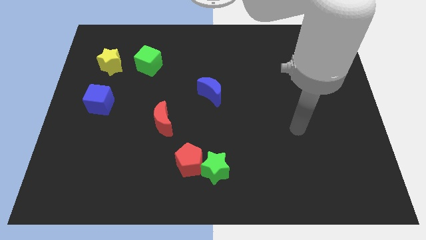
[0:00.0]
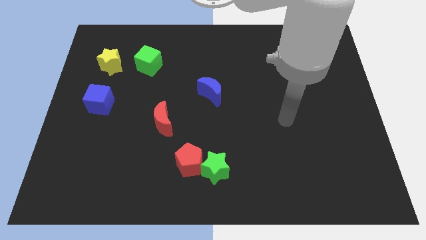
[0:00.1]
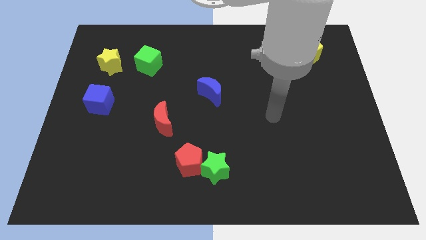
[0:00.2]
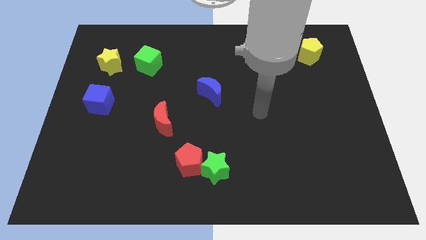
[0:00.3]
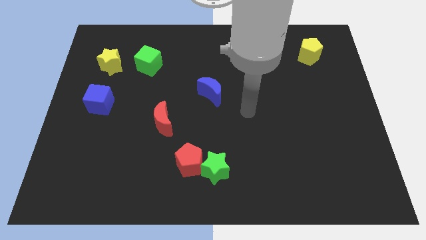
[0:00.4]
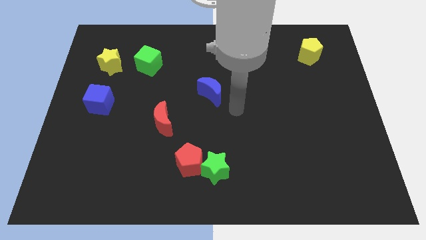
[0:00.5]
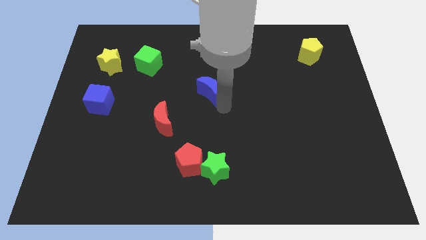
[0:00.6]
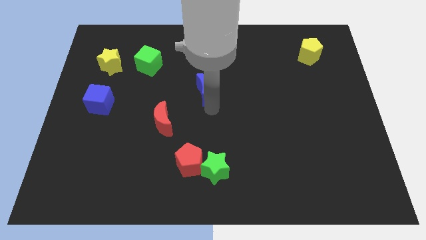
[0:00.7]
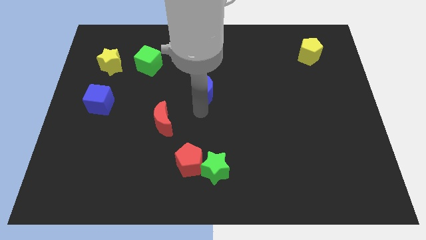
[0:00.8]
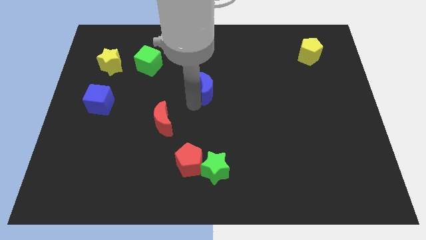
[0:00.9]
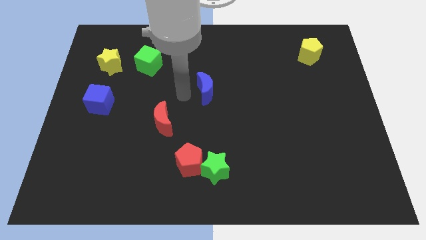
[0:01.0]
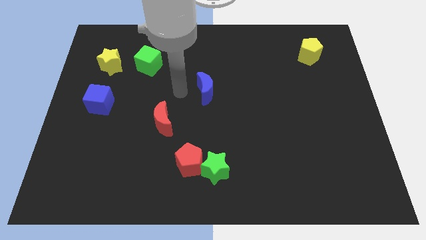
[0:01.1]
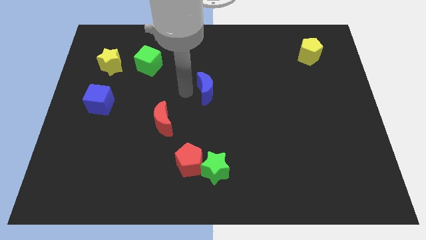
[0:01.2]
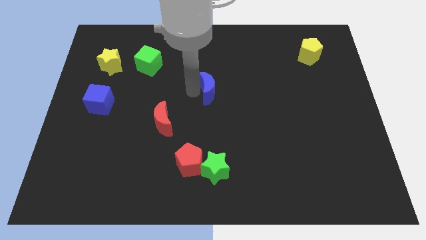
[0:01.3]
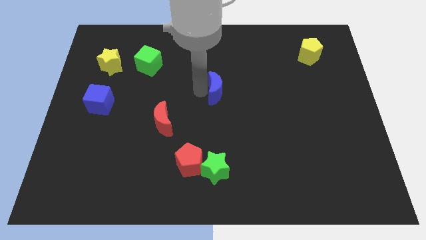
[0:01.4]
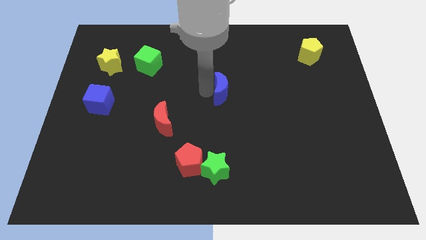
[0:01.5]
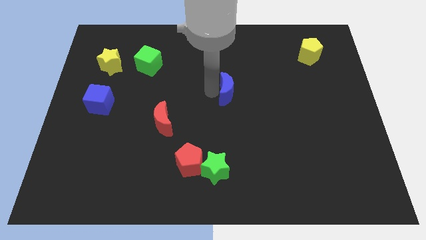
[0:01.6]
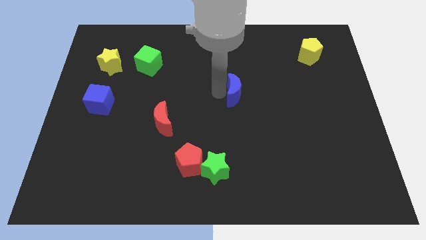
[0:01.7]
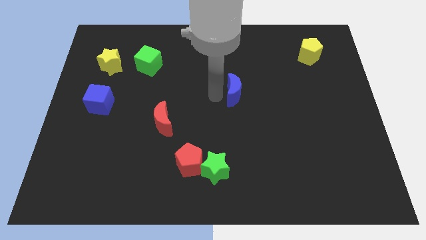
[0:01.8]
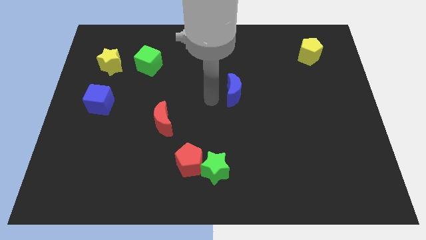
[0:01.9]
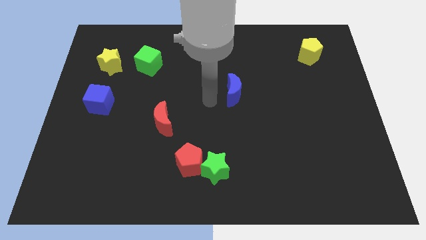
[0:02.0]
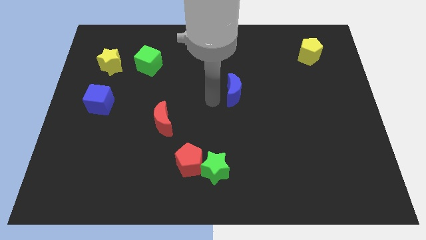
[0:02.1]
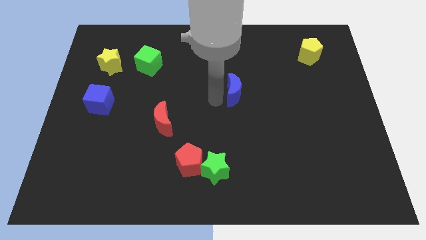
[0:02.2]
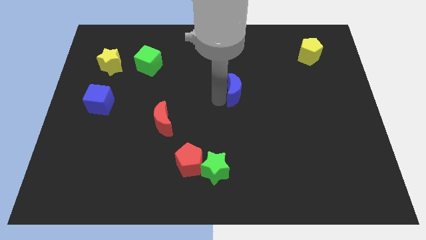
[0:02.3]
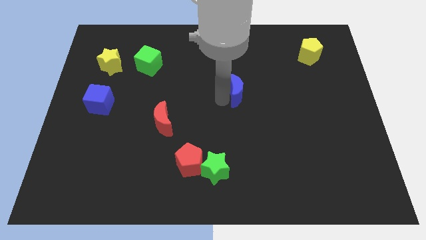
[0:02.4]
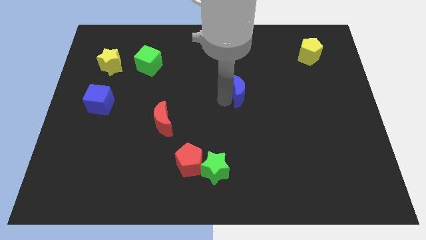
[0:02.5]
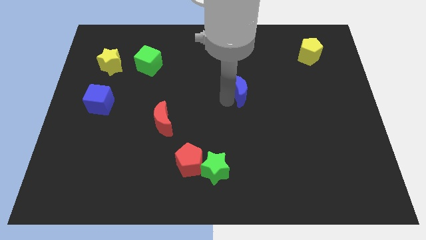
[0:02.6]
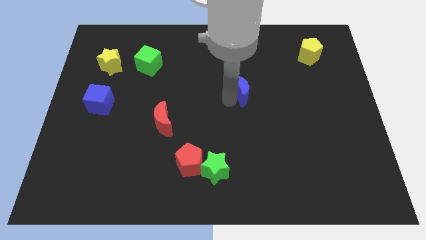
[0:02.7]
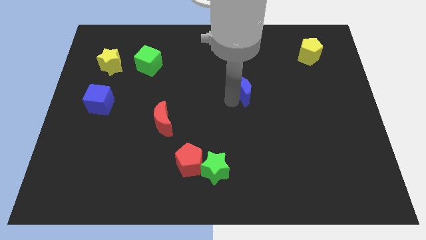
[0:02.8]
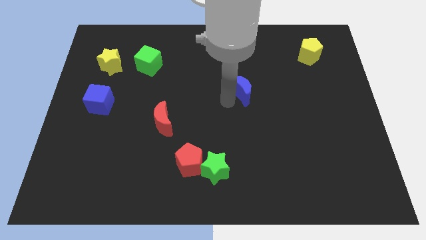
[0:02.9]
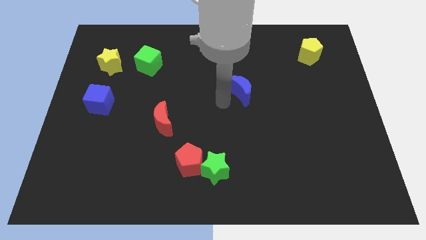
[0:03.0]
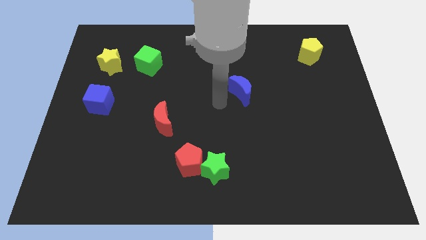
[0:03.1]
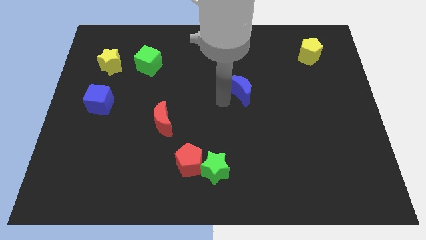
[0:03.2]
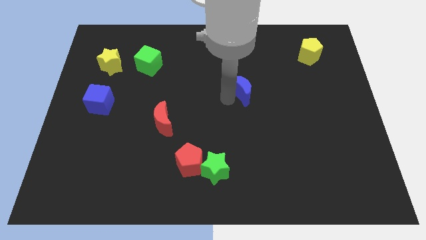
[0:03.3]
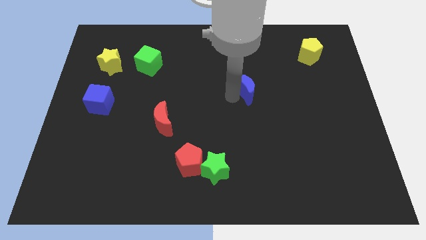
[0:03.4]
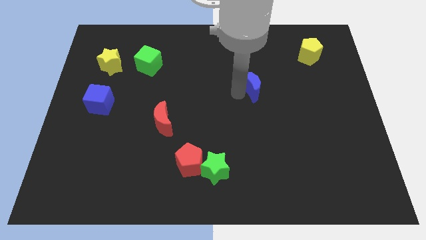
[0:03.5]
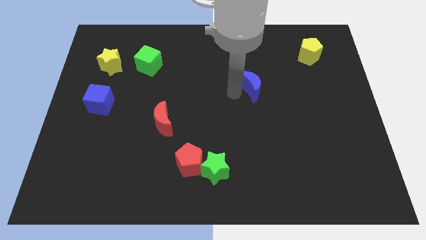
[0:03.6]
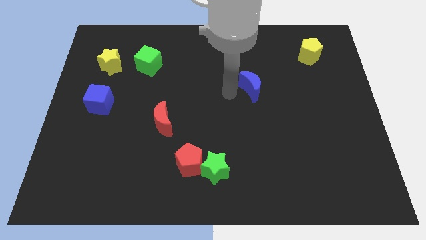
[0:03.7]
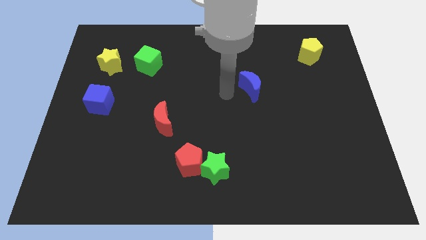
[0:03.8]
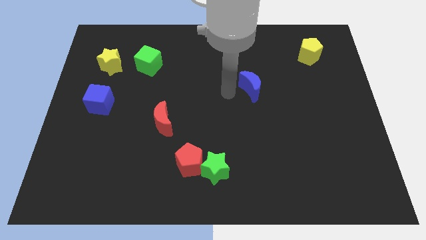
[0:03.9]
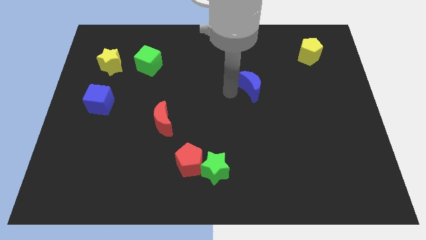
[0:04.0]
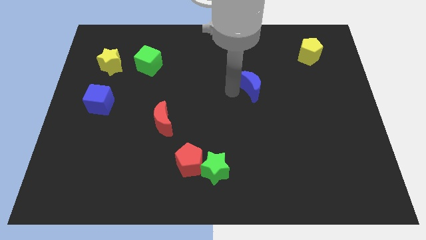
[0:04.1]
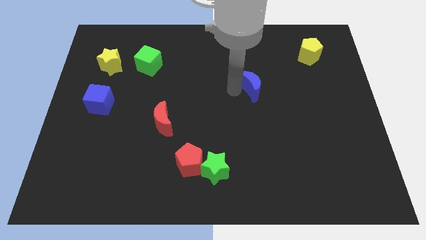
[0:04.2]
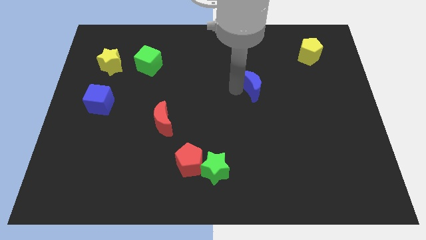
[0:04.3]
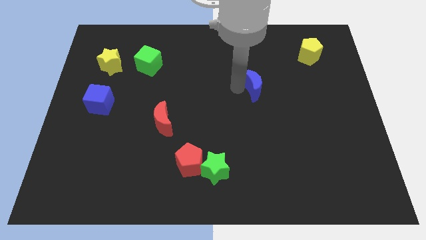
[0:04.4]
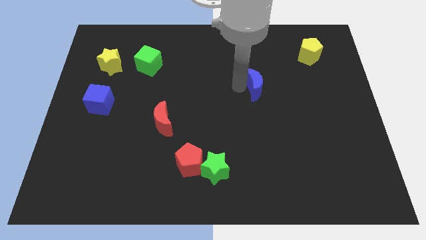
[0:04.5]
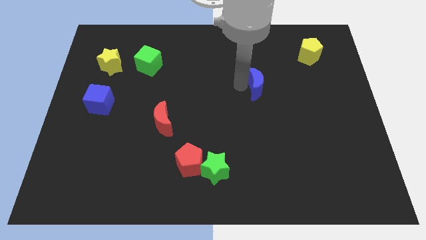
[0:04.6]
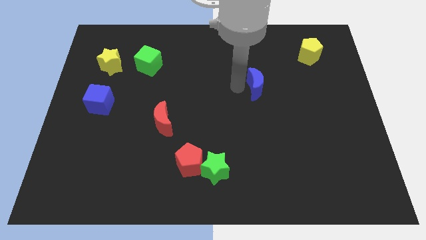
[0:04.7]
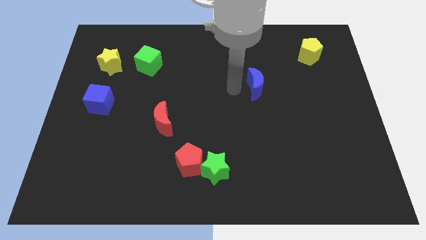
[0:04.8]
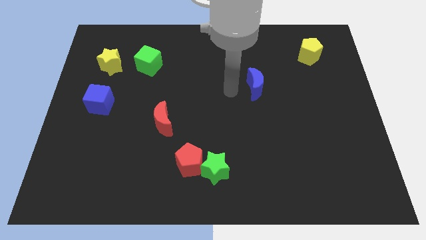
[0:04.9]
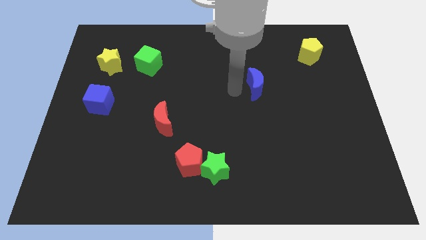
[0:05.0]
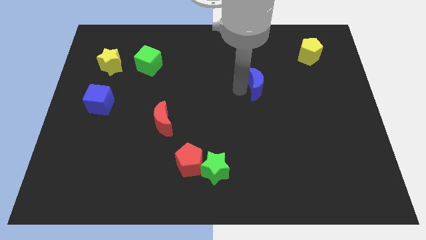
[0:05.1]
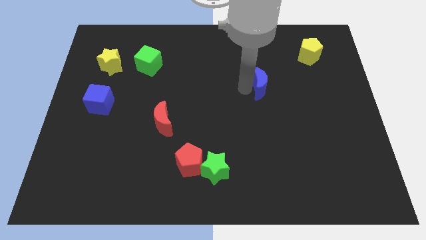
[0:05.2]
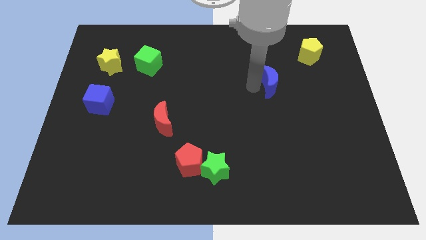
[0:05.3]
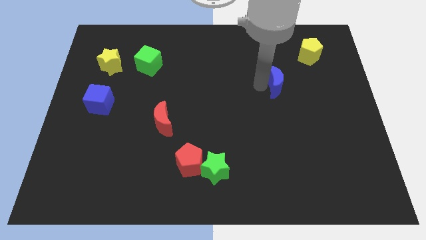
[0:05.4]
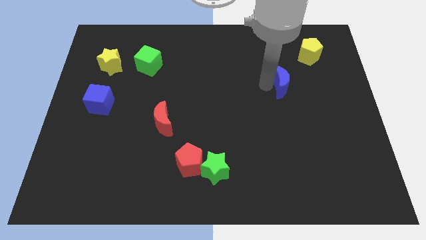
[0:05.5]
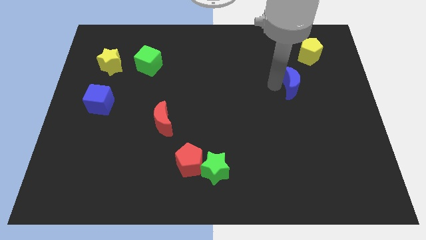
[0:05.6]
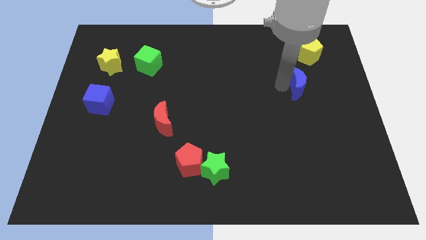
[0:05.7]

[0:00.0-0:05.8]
move the blue moon to the bottom side of the yellow pentagon

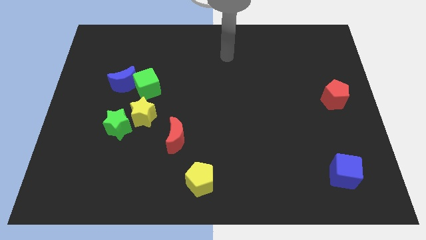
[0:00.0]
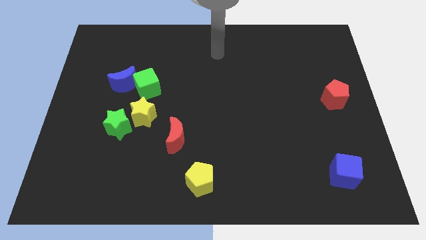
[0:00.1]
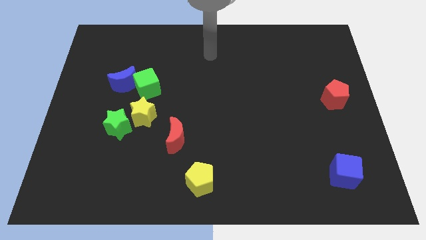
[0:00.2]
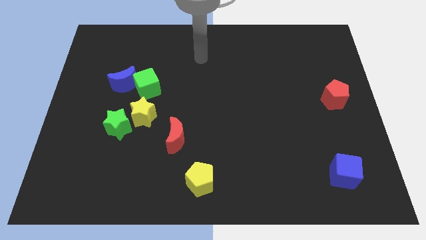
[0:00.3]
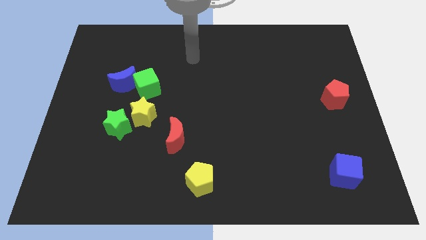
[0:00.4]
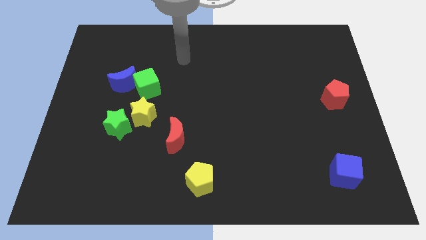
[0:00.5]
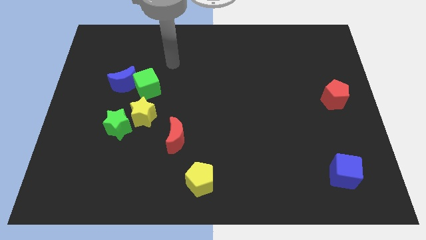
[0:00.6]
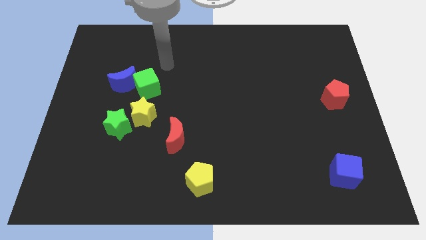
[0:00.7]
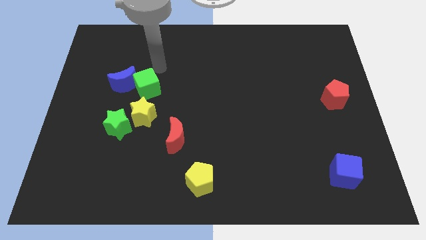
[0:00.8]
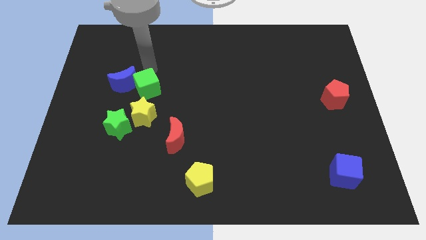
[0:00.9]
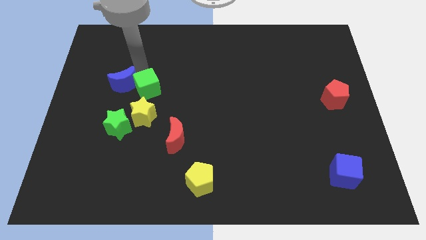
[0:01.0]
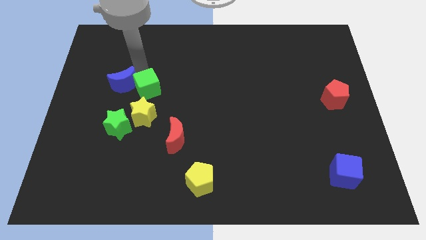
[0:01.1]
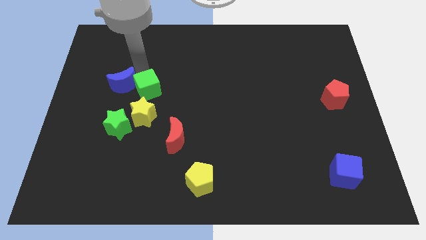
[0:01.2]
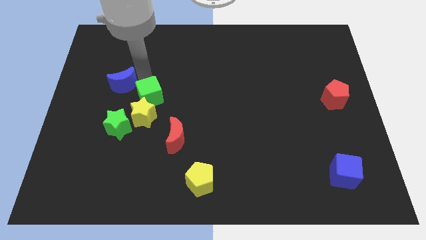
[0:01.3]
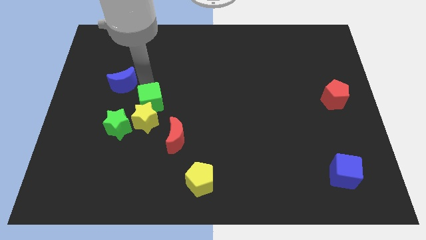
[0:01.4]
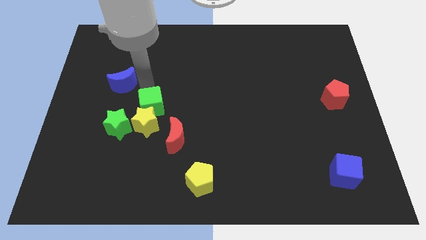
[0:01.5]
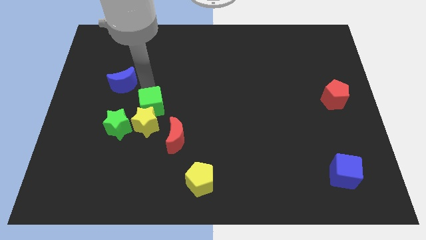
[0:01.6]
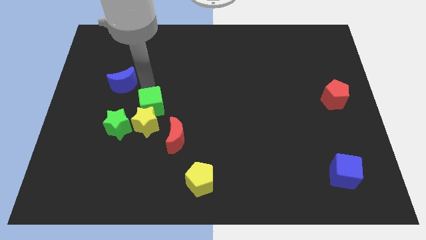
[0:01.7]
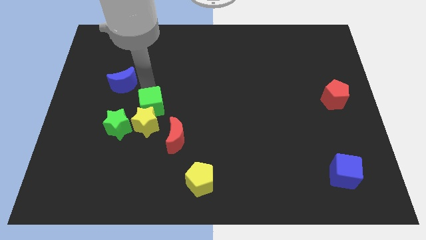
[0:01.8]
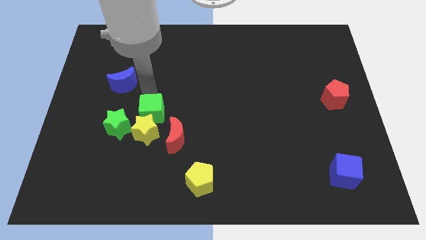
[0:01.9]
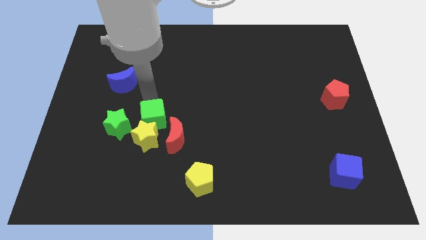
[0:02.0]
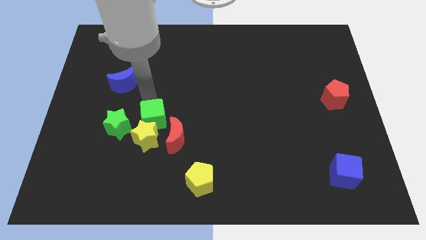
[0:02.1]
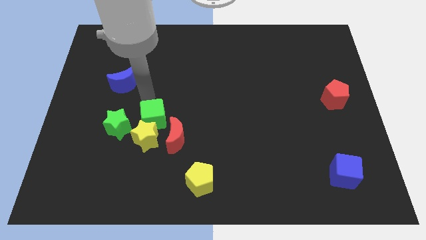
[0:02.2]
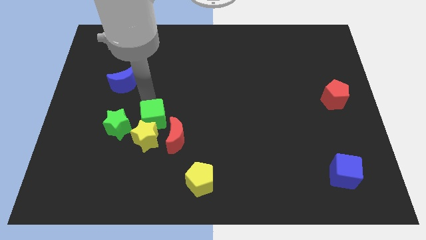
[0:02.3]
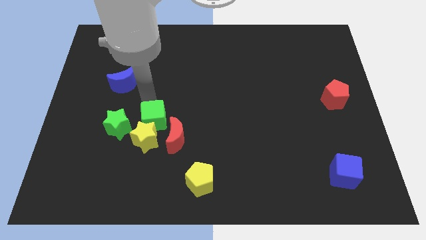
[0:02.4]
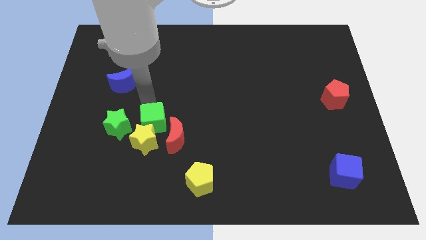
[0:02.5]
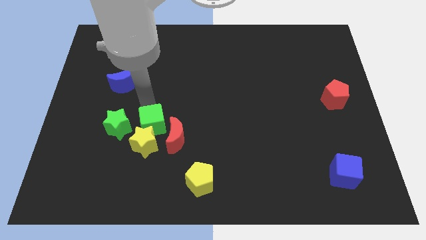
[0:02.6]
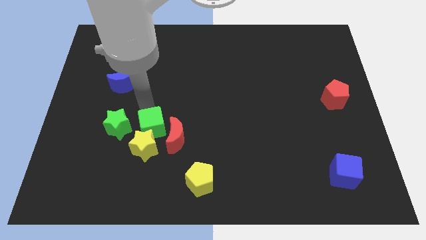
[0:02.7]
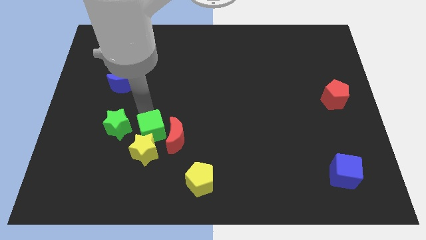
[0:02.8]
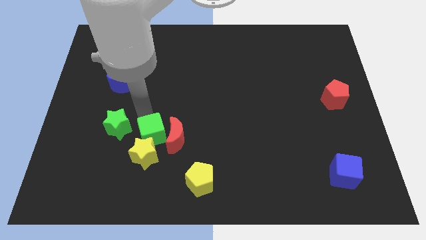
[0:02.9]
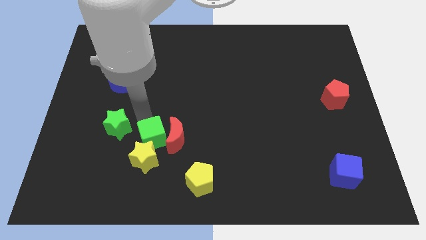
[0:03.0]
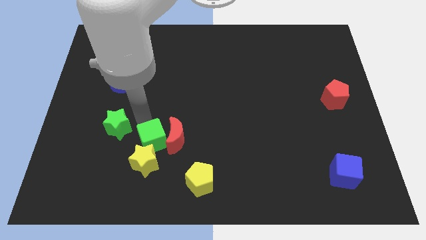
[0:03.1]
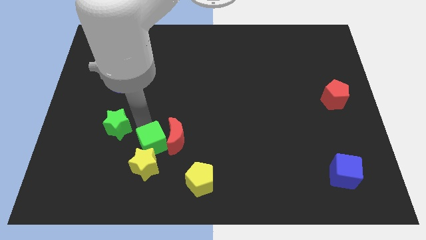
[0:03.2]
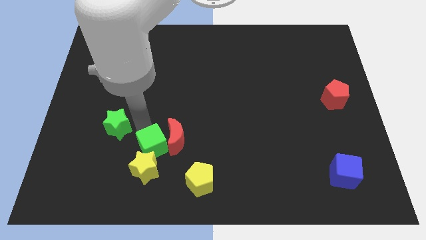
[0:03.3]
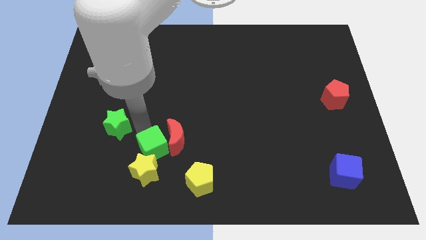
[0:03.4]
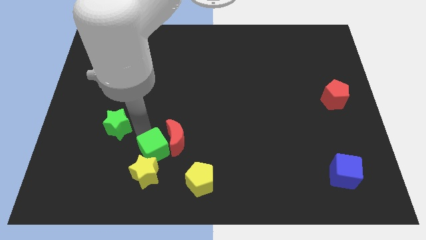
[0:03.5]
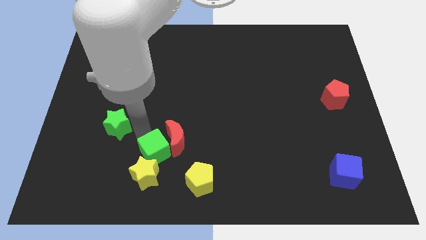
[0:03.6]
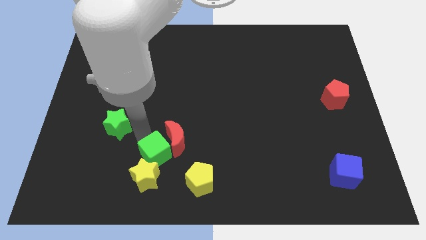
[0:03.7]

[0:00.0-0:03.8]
put the green cube to the bottom of the red moon
